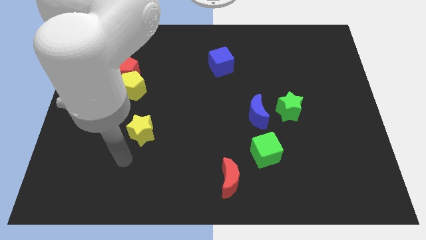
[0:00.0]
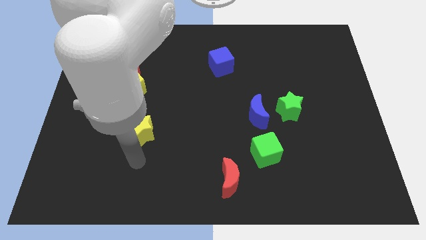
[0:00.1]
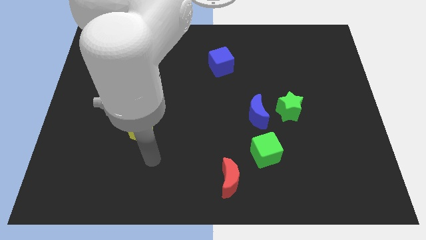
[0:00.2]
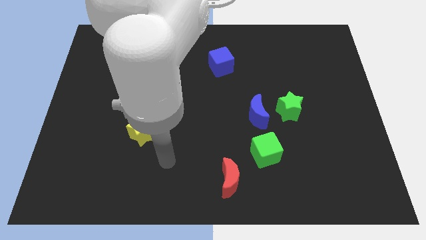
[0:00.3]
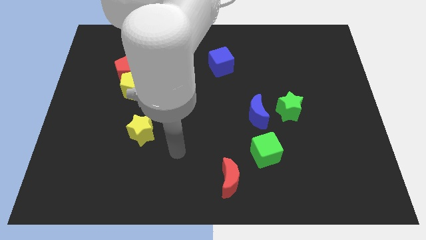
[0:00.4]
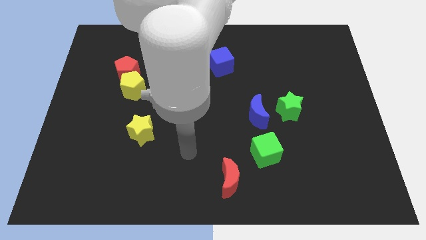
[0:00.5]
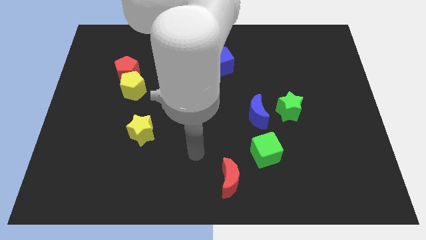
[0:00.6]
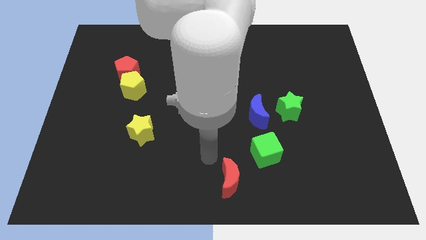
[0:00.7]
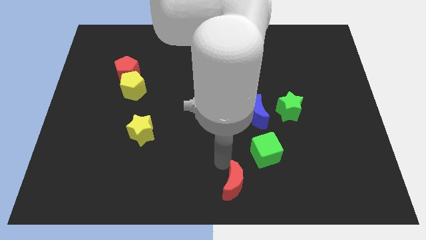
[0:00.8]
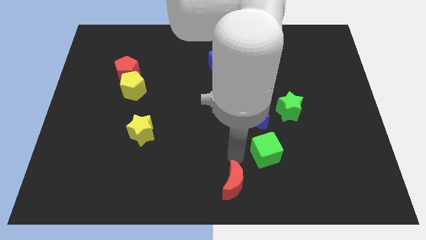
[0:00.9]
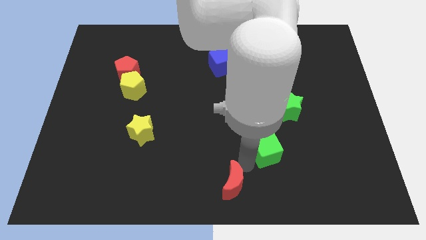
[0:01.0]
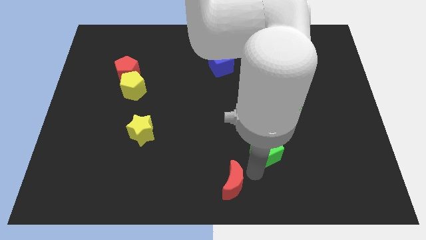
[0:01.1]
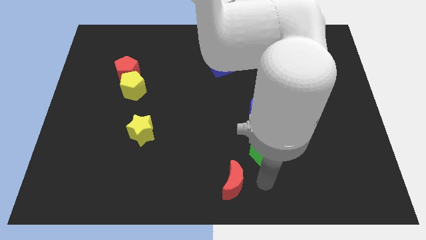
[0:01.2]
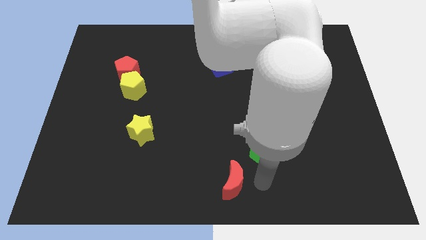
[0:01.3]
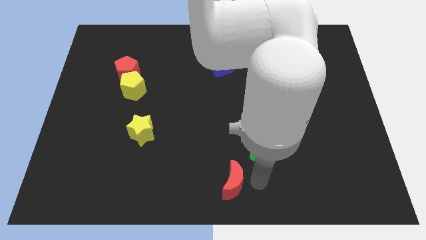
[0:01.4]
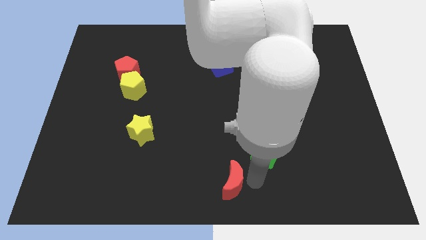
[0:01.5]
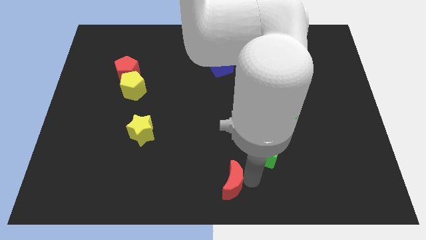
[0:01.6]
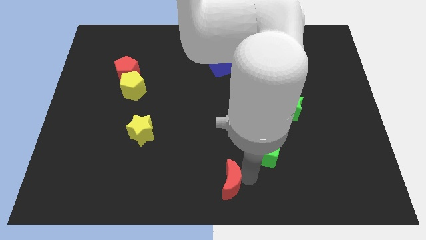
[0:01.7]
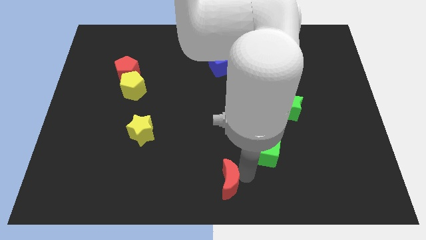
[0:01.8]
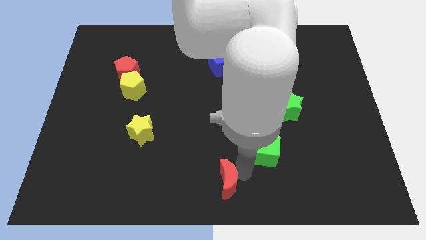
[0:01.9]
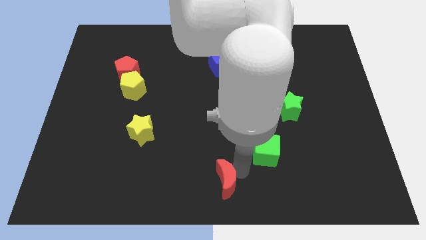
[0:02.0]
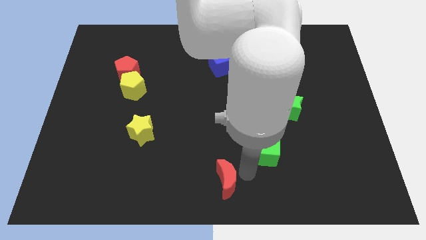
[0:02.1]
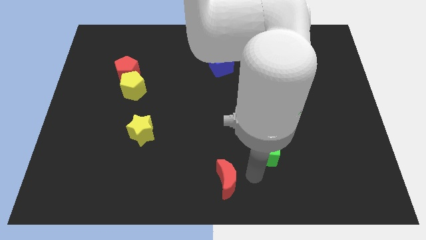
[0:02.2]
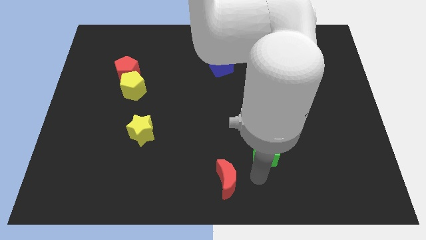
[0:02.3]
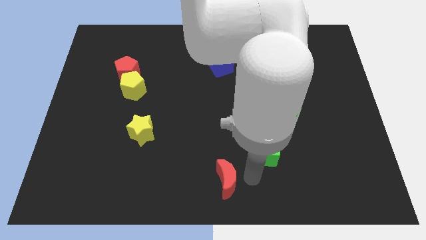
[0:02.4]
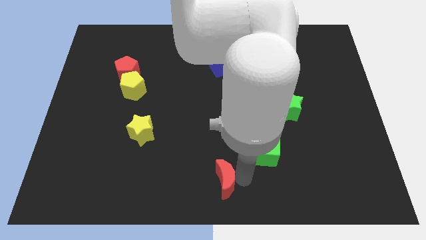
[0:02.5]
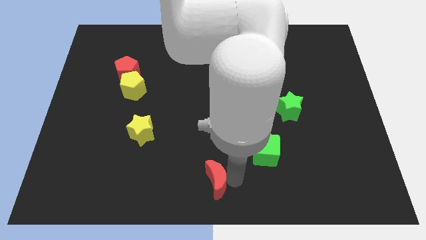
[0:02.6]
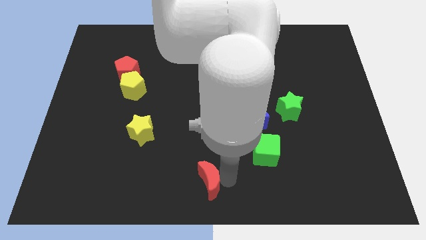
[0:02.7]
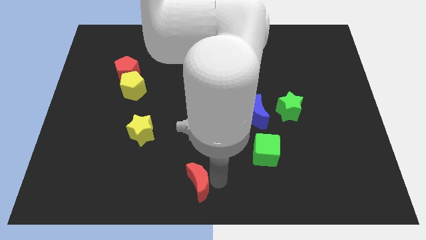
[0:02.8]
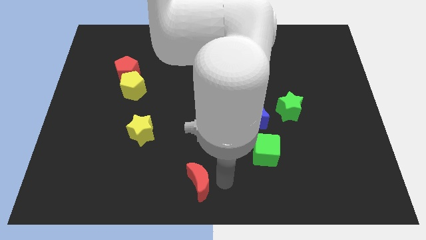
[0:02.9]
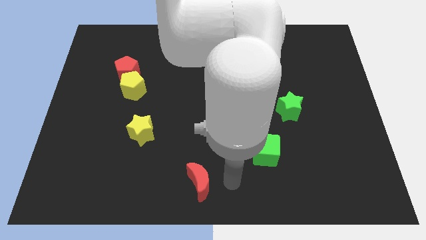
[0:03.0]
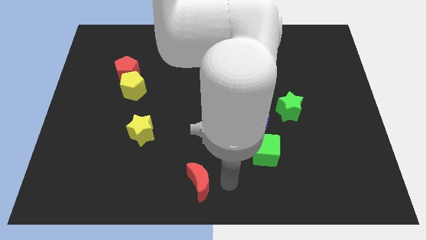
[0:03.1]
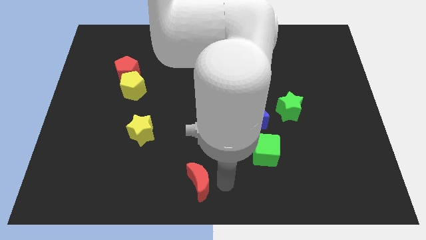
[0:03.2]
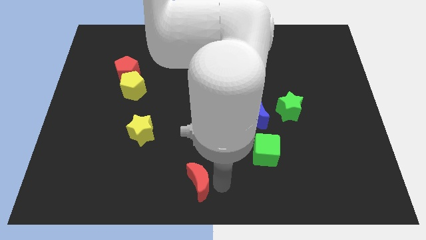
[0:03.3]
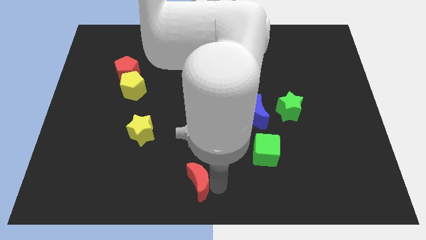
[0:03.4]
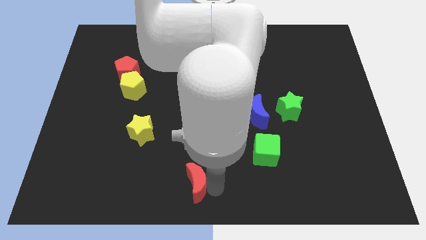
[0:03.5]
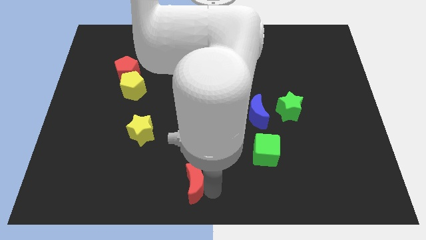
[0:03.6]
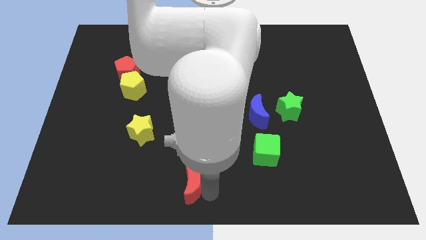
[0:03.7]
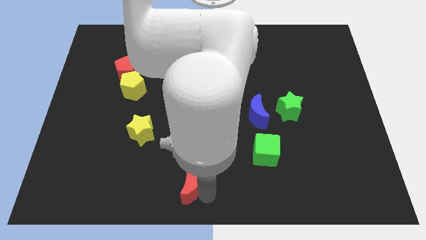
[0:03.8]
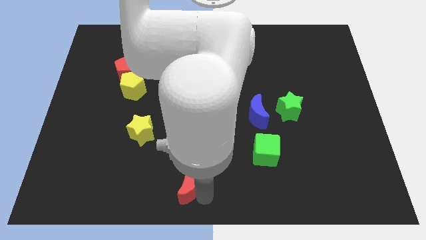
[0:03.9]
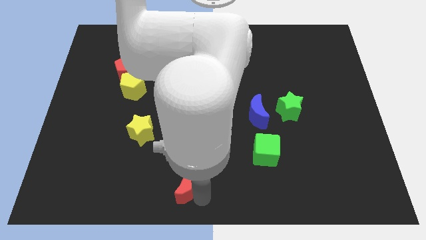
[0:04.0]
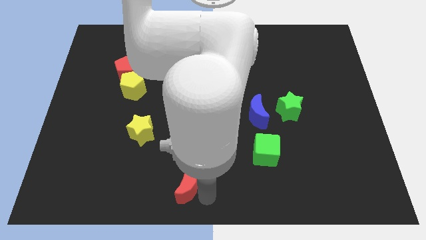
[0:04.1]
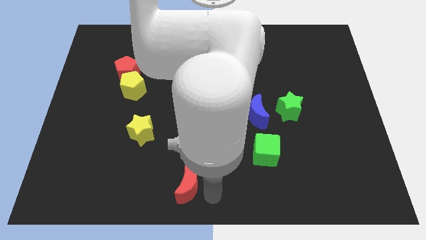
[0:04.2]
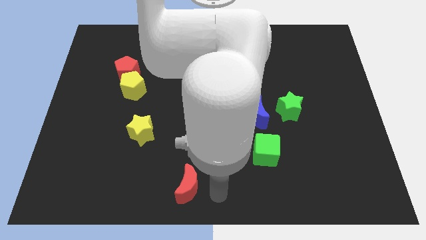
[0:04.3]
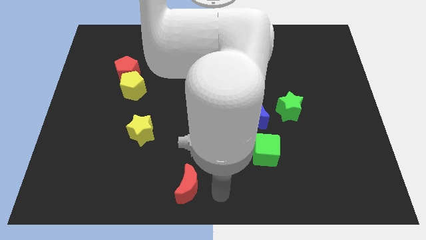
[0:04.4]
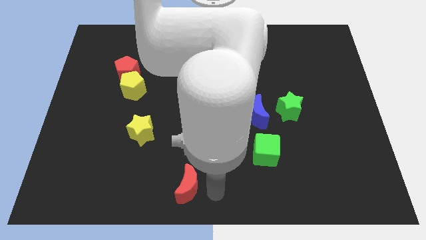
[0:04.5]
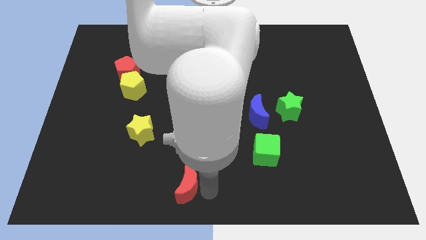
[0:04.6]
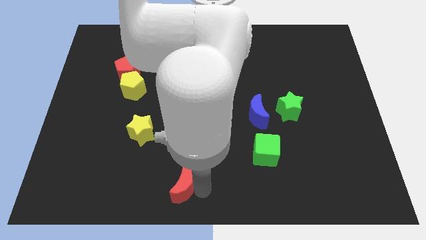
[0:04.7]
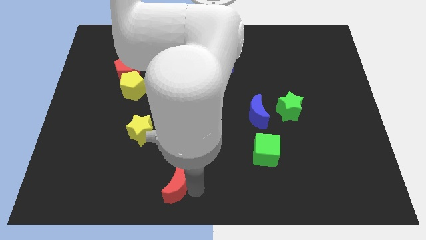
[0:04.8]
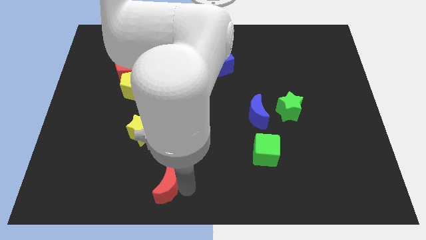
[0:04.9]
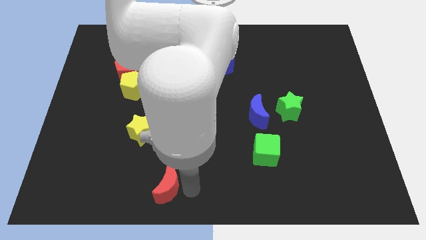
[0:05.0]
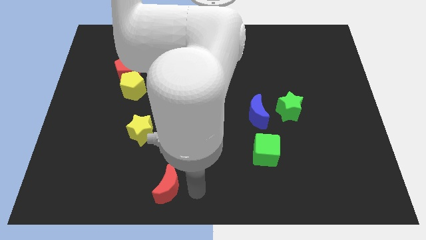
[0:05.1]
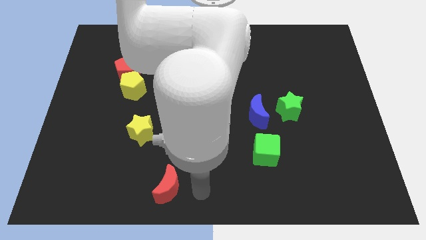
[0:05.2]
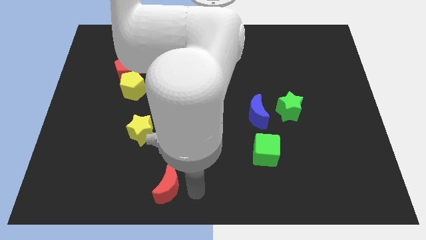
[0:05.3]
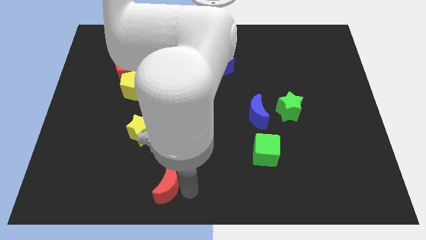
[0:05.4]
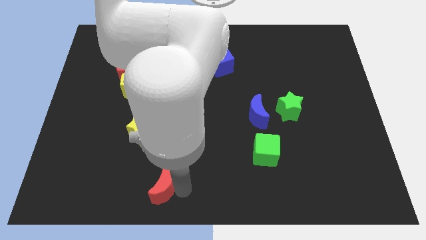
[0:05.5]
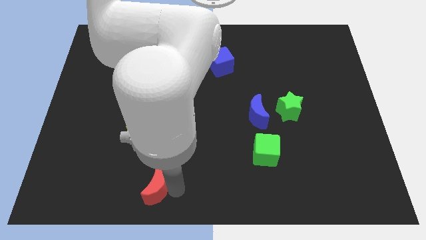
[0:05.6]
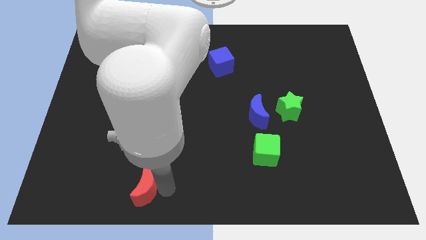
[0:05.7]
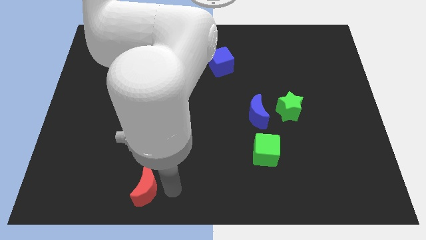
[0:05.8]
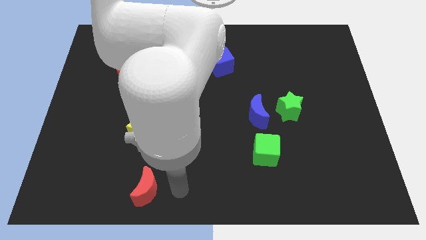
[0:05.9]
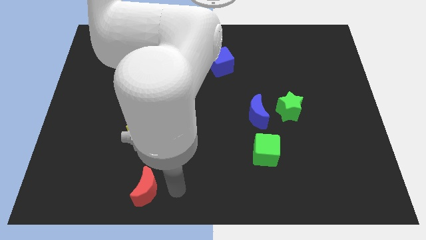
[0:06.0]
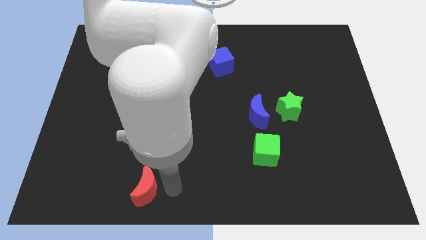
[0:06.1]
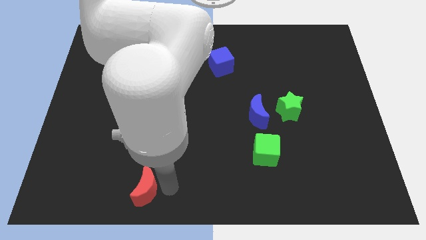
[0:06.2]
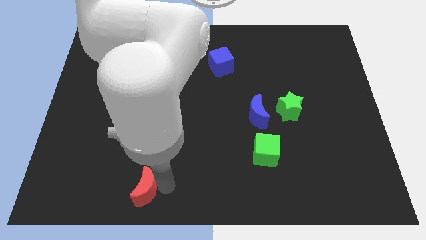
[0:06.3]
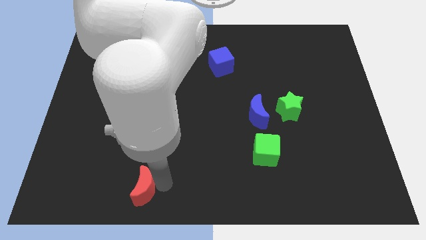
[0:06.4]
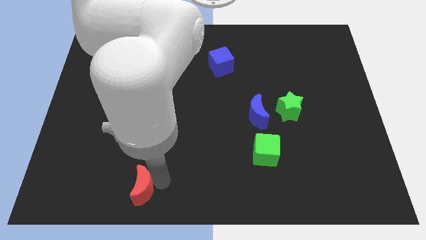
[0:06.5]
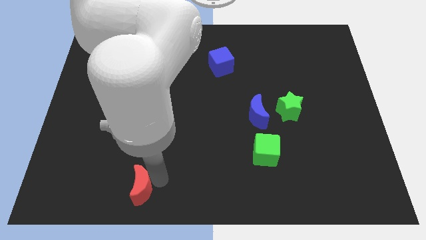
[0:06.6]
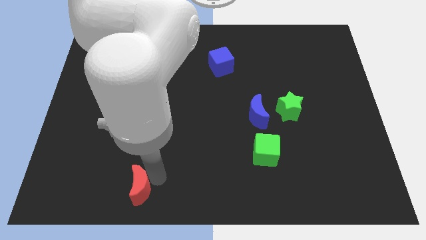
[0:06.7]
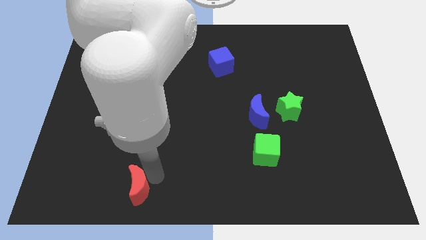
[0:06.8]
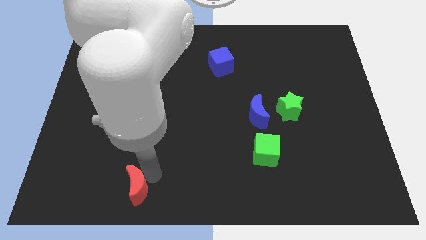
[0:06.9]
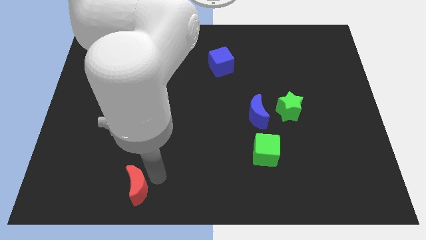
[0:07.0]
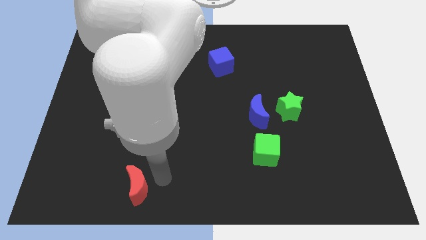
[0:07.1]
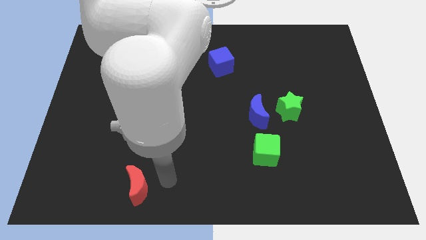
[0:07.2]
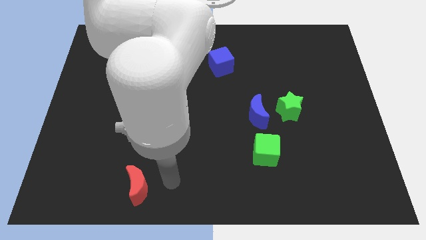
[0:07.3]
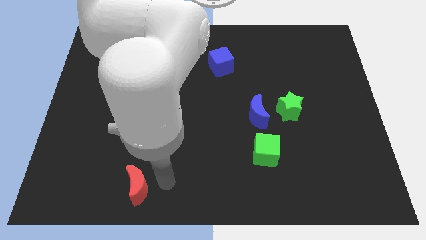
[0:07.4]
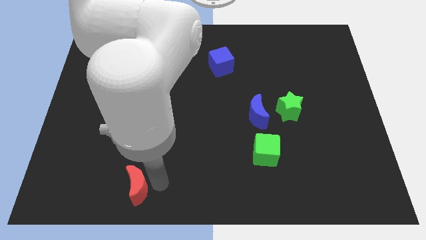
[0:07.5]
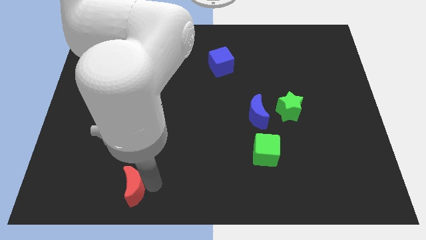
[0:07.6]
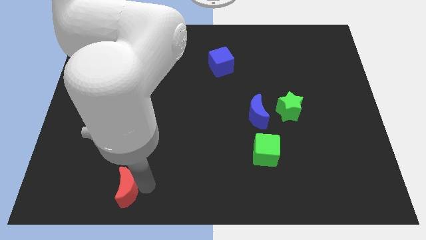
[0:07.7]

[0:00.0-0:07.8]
move the red moon to the left

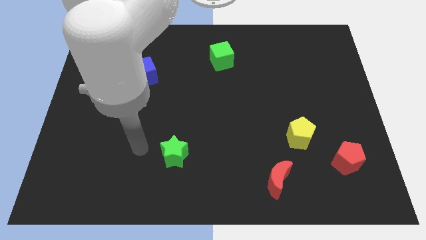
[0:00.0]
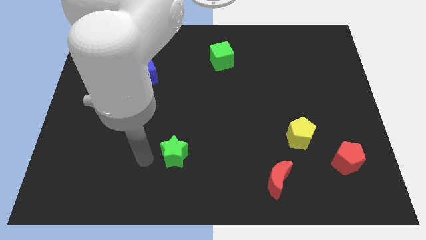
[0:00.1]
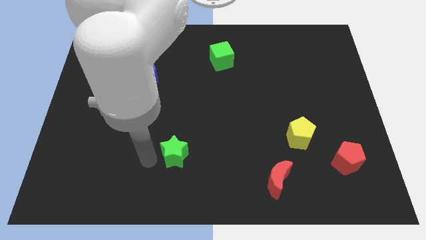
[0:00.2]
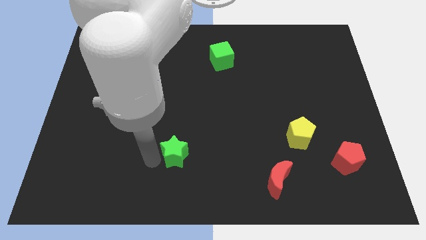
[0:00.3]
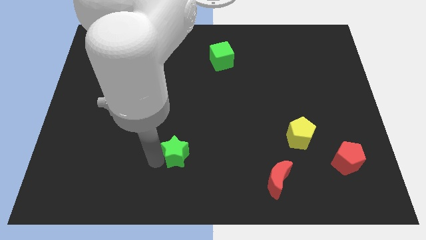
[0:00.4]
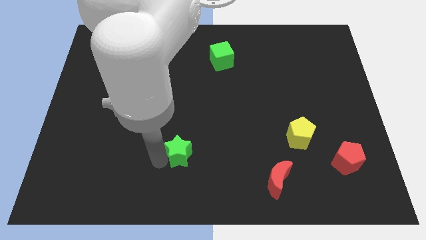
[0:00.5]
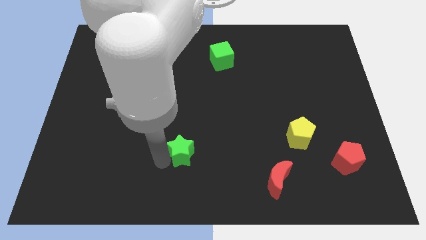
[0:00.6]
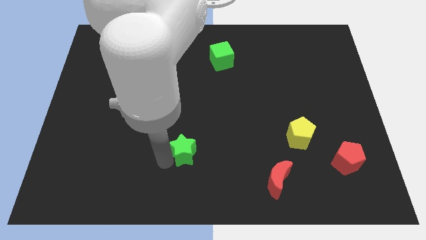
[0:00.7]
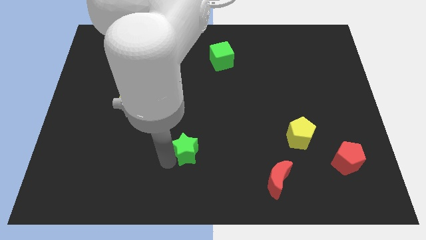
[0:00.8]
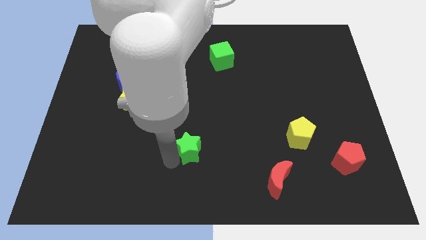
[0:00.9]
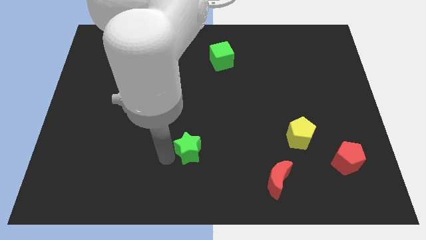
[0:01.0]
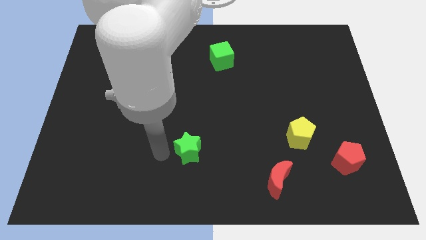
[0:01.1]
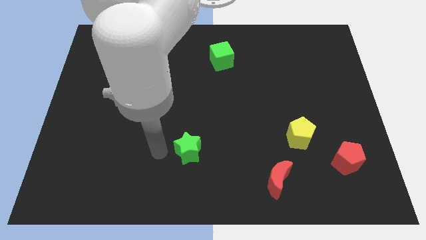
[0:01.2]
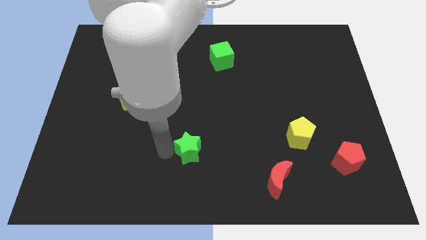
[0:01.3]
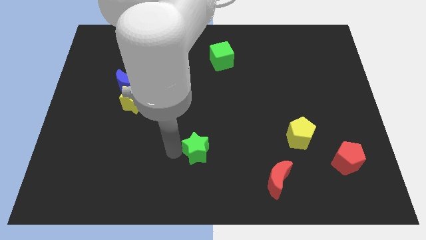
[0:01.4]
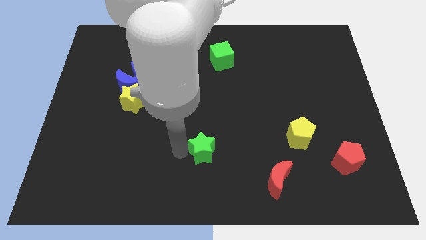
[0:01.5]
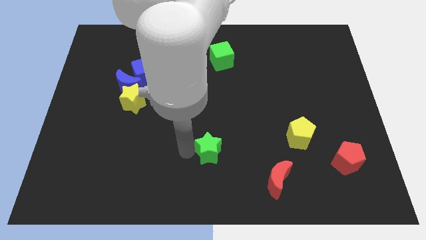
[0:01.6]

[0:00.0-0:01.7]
slightly push the green star to the right
